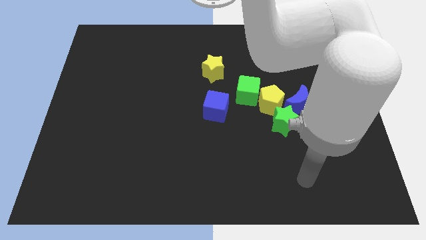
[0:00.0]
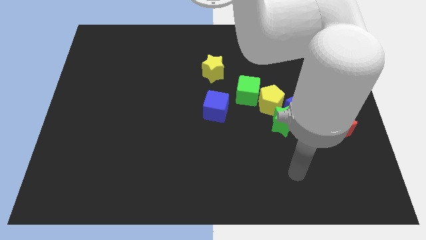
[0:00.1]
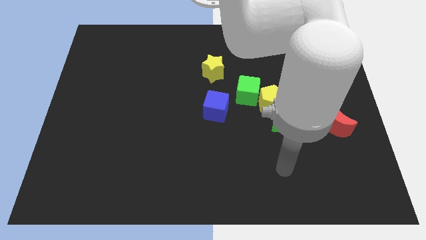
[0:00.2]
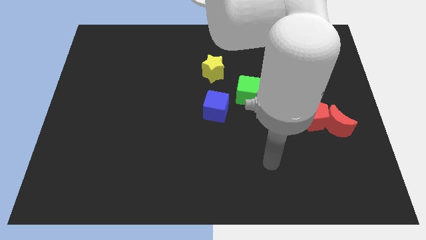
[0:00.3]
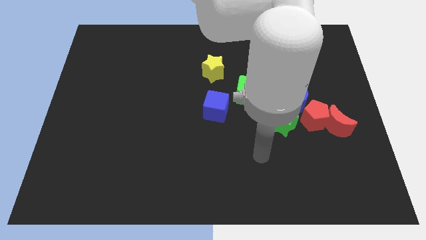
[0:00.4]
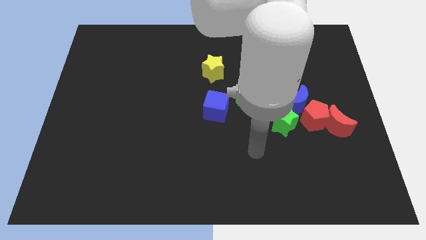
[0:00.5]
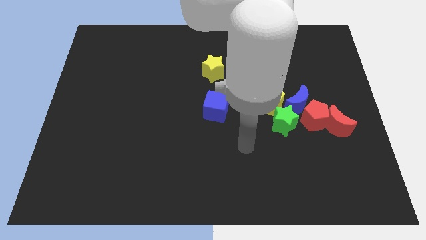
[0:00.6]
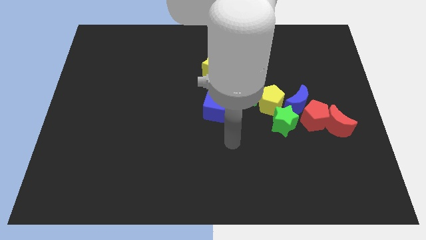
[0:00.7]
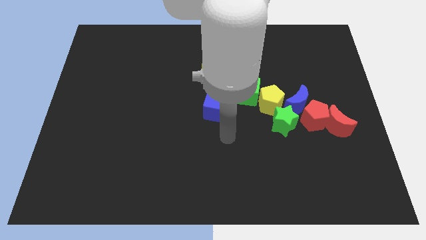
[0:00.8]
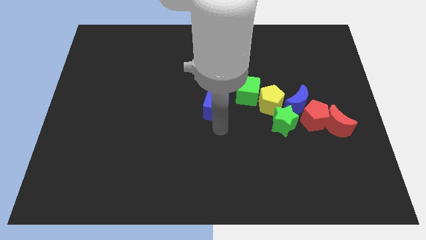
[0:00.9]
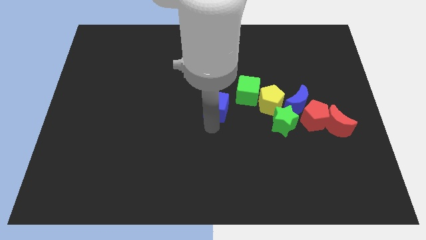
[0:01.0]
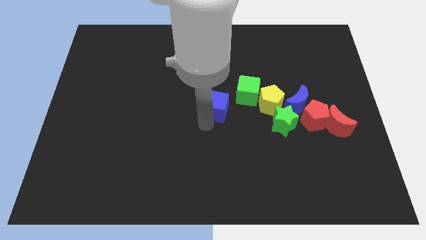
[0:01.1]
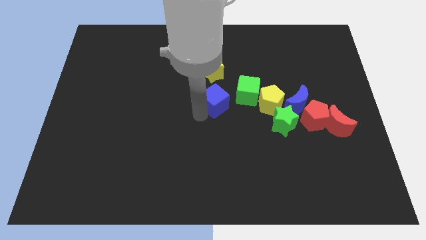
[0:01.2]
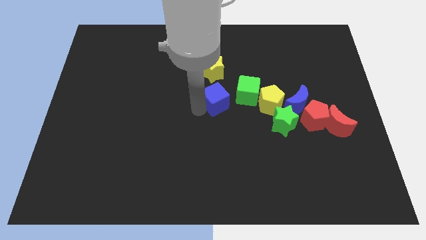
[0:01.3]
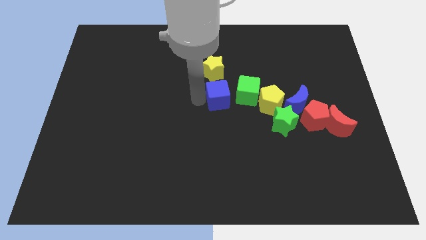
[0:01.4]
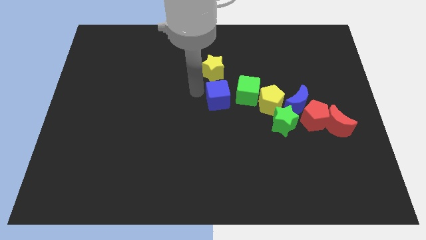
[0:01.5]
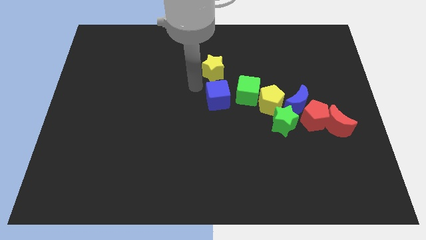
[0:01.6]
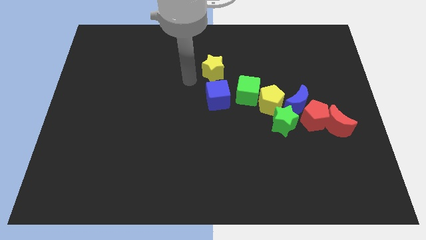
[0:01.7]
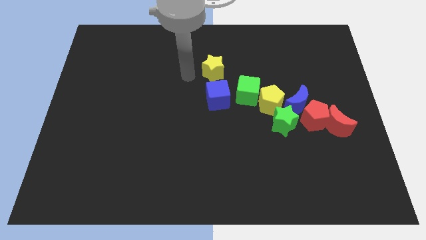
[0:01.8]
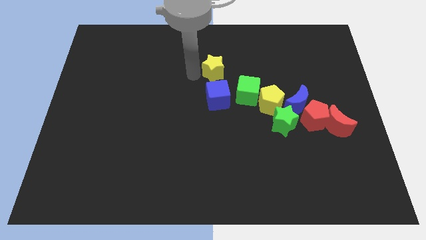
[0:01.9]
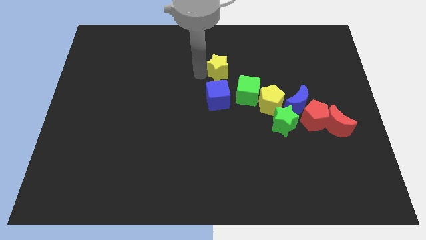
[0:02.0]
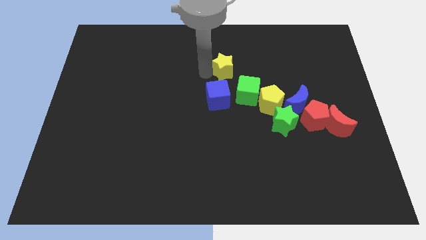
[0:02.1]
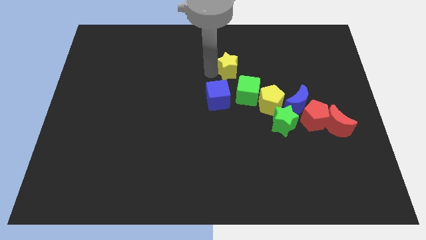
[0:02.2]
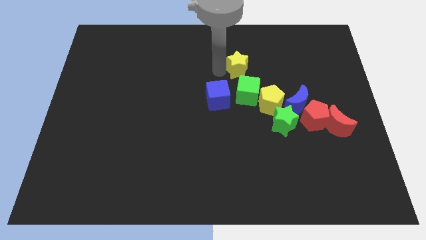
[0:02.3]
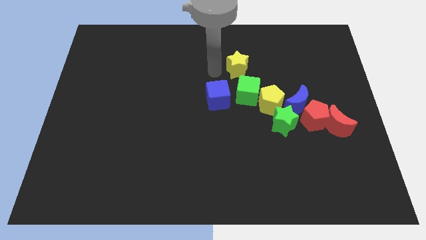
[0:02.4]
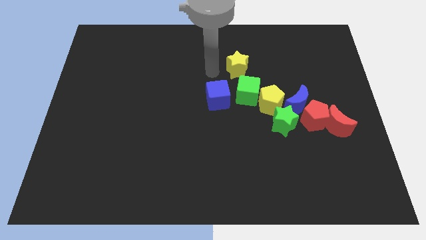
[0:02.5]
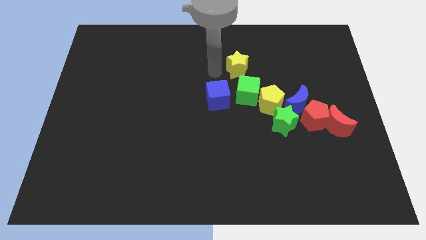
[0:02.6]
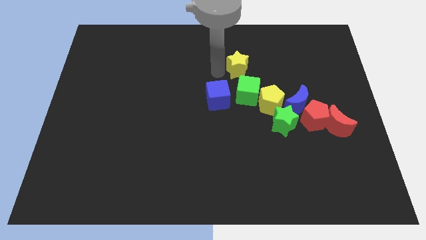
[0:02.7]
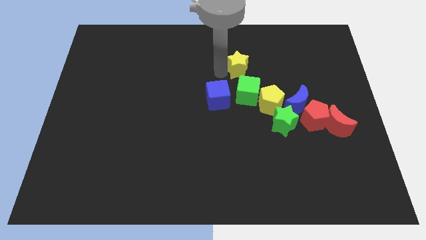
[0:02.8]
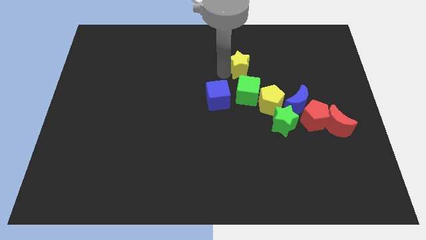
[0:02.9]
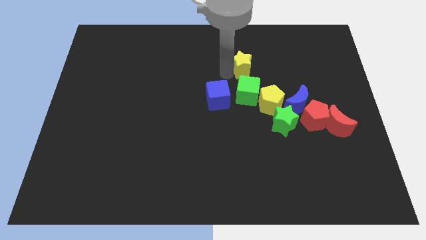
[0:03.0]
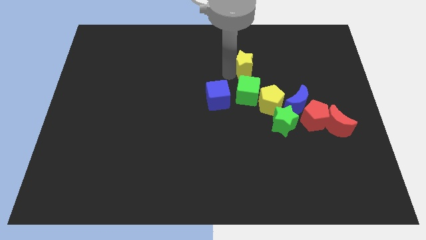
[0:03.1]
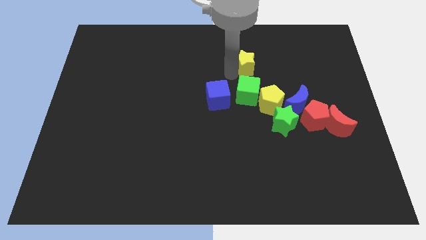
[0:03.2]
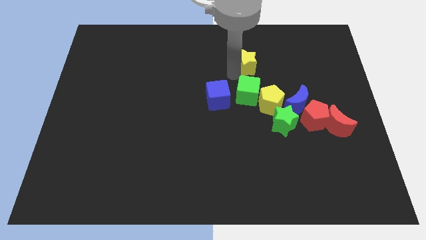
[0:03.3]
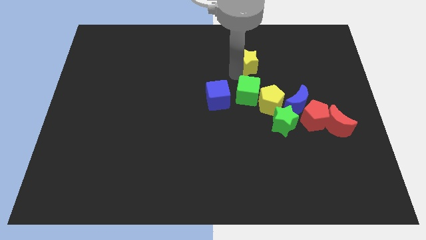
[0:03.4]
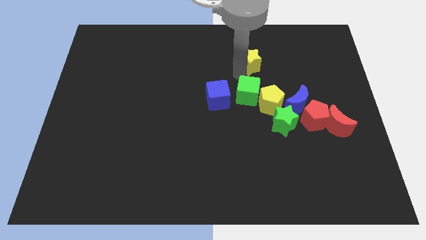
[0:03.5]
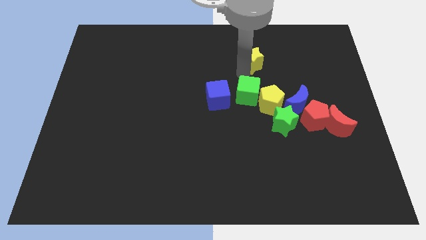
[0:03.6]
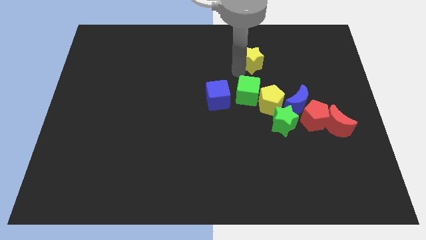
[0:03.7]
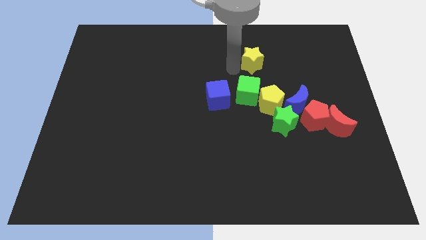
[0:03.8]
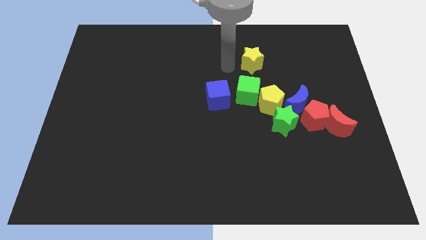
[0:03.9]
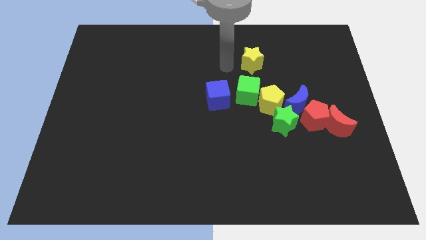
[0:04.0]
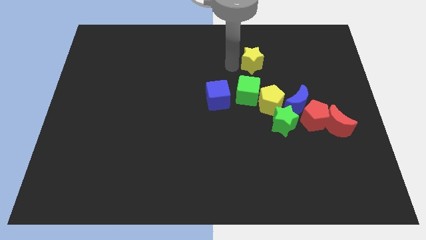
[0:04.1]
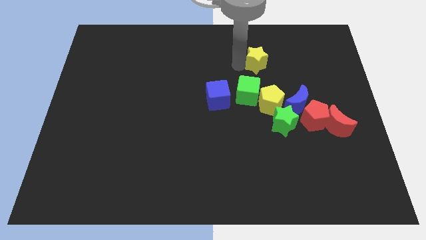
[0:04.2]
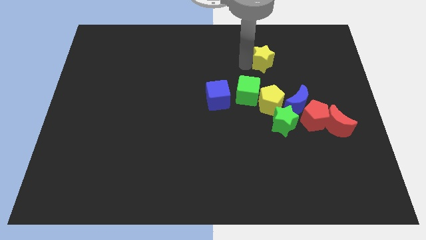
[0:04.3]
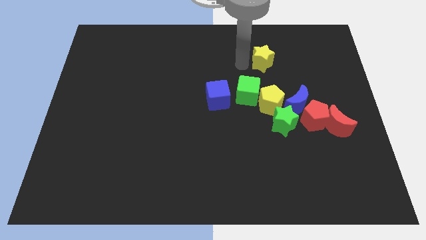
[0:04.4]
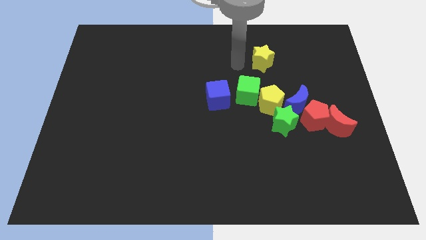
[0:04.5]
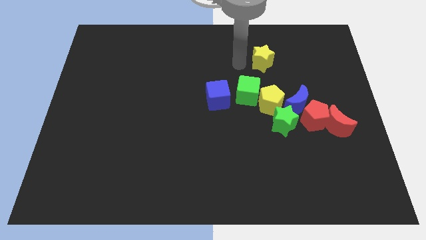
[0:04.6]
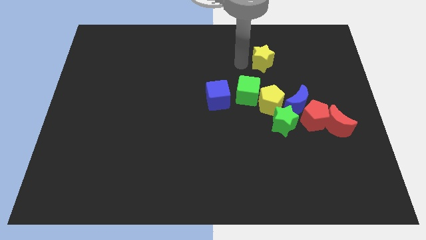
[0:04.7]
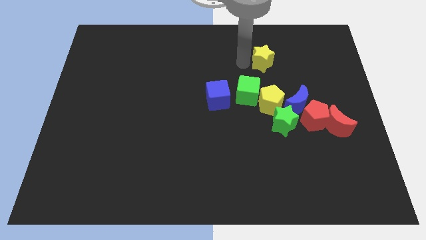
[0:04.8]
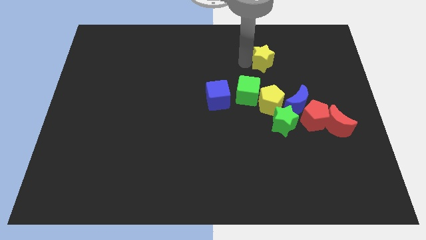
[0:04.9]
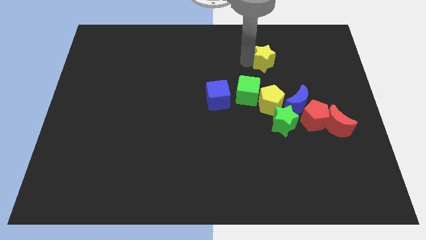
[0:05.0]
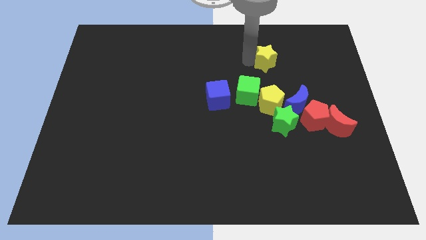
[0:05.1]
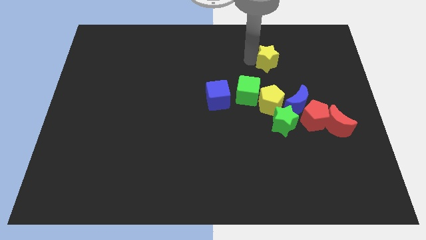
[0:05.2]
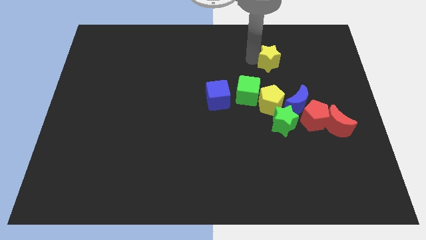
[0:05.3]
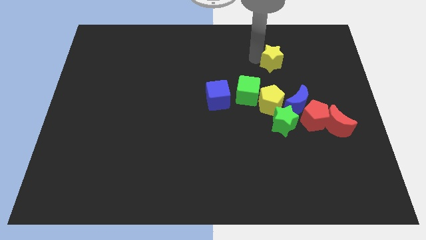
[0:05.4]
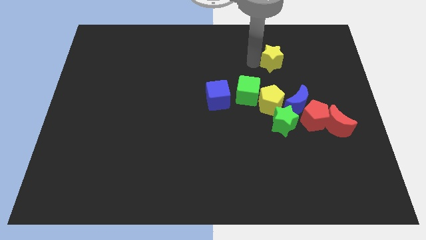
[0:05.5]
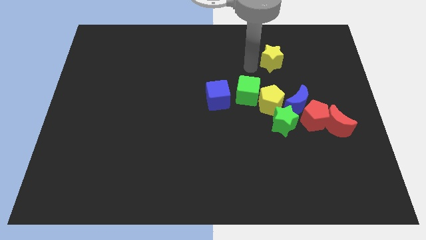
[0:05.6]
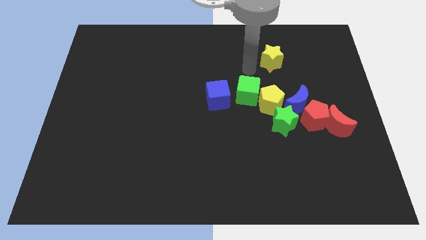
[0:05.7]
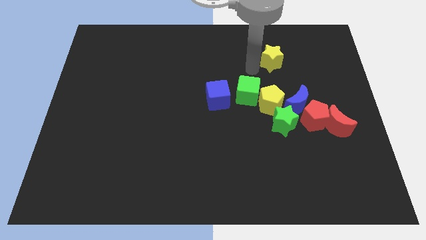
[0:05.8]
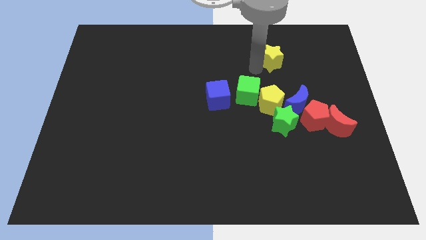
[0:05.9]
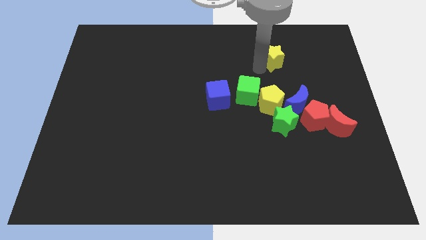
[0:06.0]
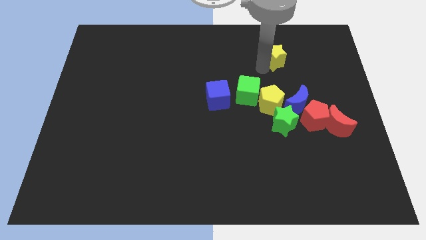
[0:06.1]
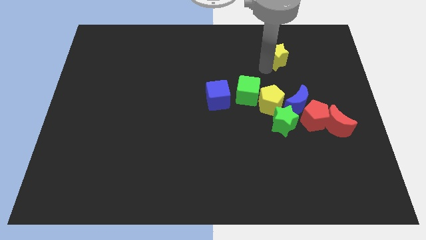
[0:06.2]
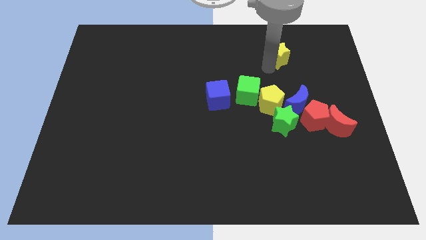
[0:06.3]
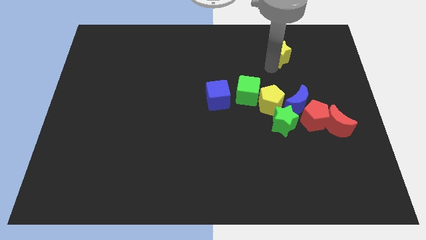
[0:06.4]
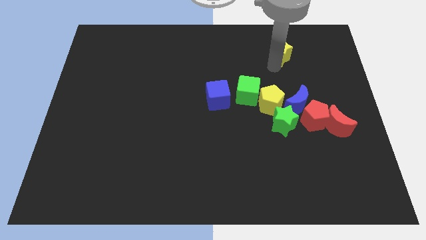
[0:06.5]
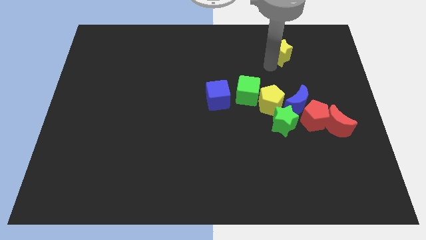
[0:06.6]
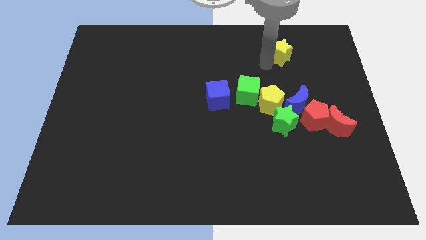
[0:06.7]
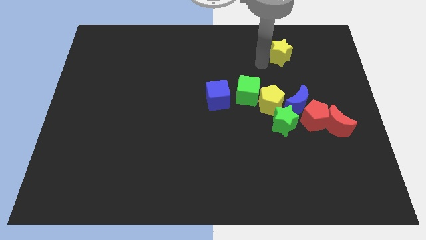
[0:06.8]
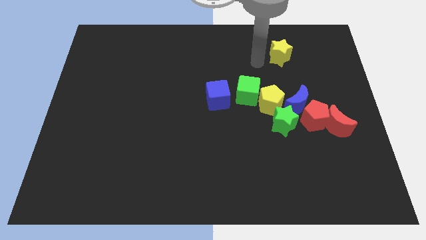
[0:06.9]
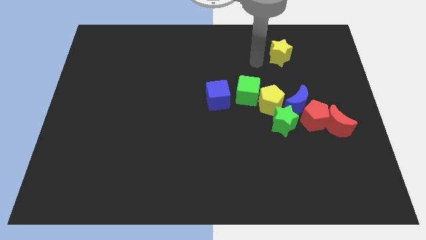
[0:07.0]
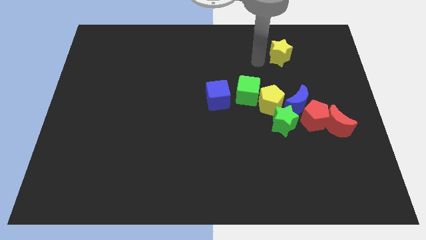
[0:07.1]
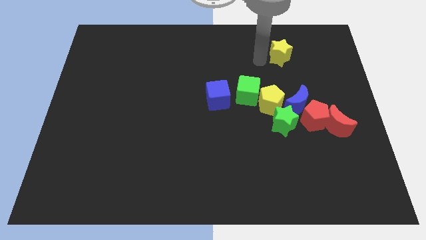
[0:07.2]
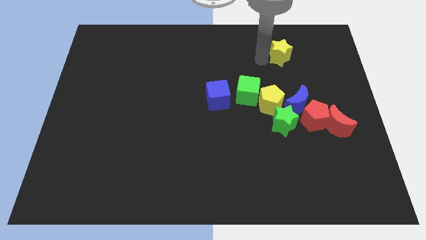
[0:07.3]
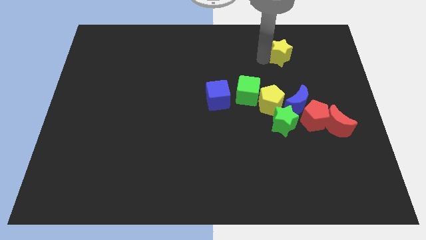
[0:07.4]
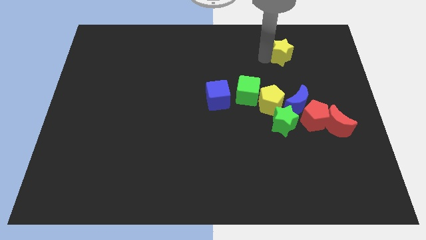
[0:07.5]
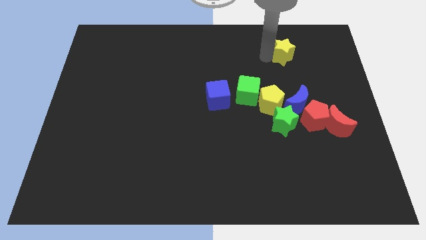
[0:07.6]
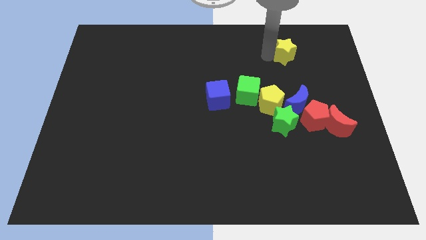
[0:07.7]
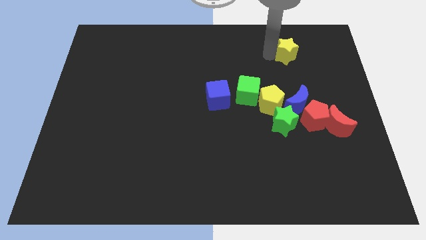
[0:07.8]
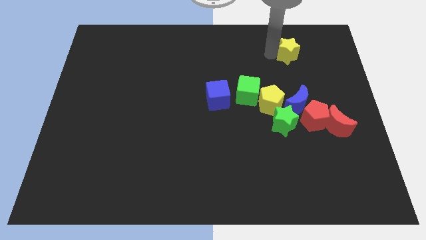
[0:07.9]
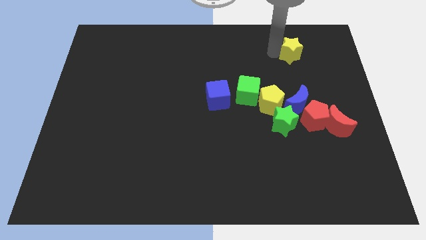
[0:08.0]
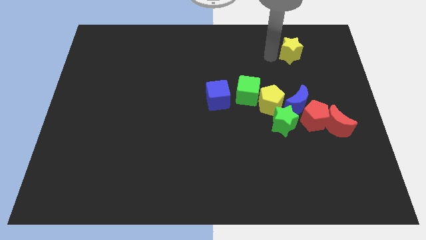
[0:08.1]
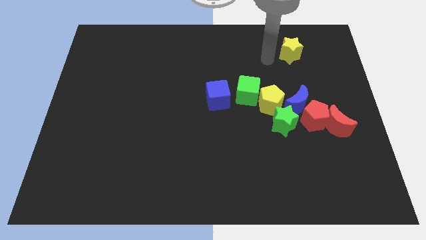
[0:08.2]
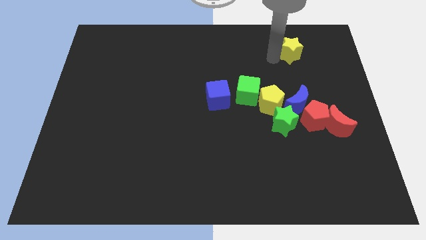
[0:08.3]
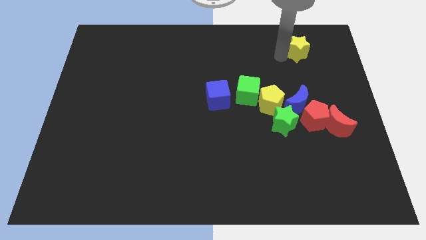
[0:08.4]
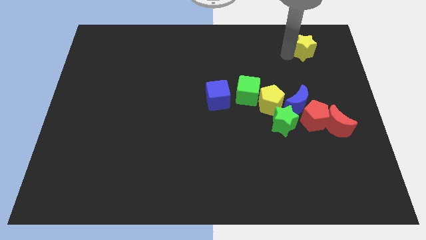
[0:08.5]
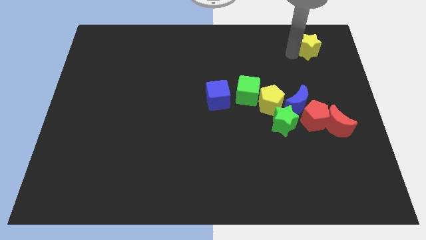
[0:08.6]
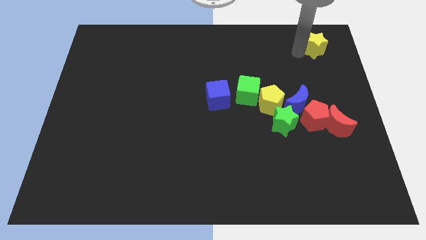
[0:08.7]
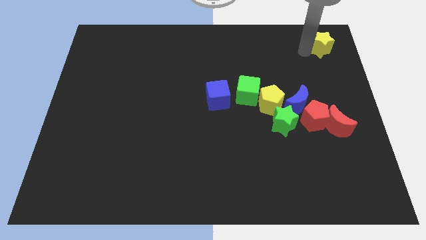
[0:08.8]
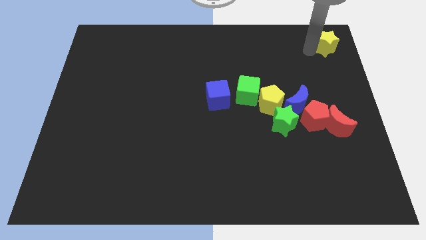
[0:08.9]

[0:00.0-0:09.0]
push the yellow star to the upper right corner
